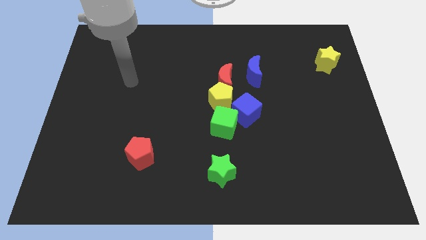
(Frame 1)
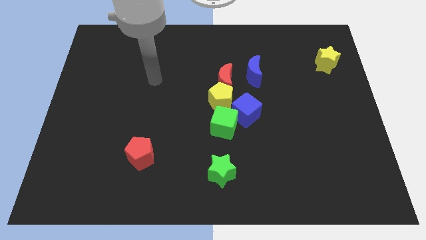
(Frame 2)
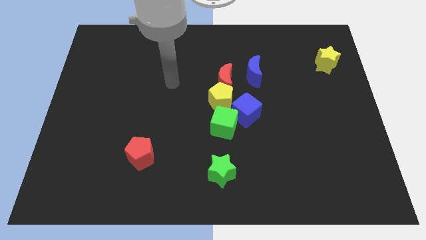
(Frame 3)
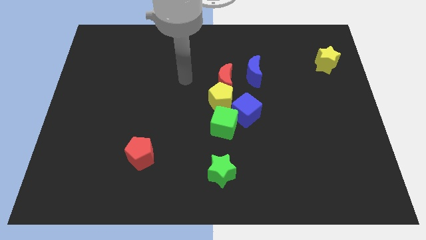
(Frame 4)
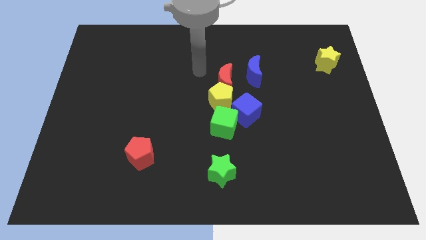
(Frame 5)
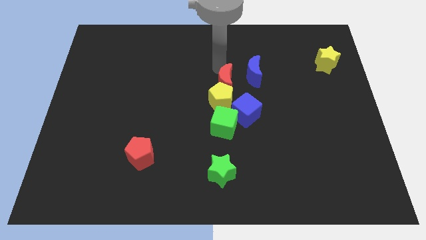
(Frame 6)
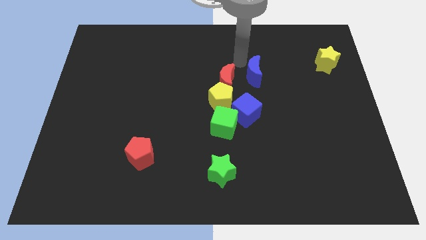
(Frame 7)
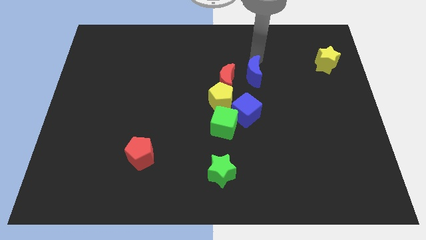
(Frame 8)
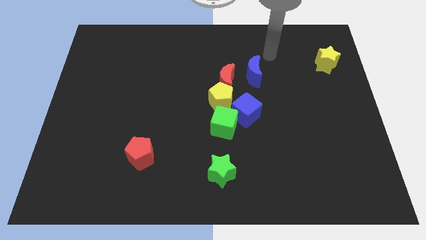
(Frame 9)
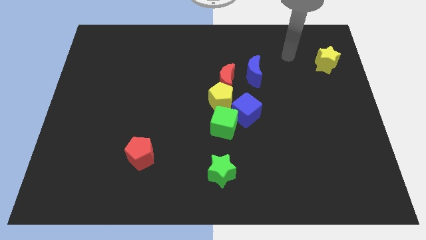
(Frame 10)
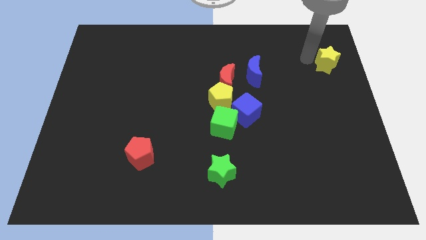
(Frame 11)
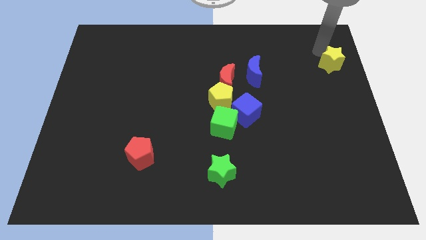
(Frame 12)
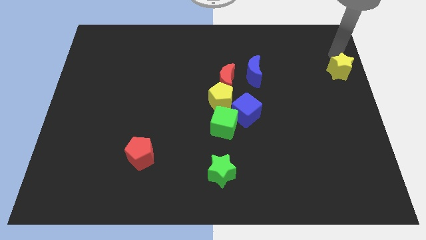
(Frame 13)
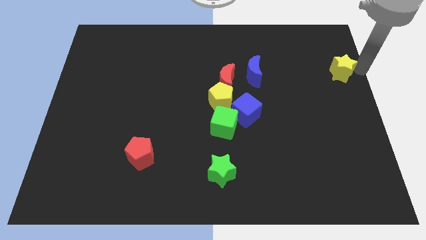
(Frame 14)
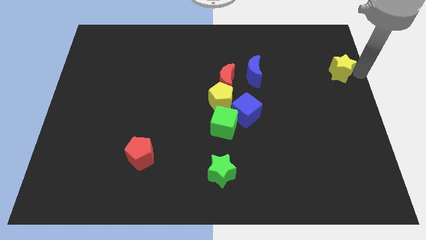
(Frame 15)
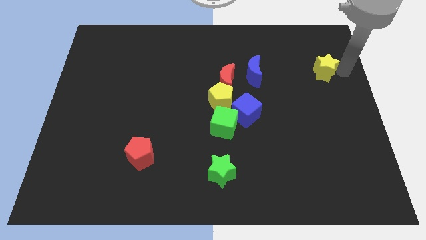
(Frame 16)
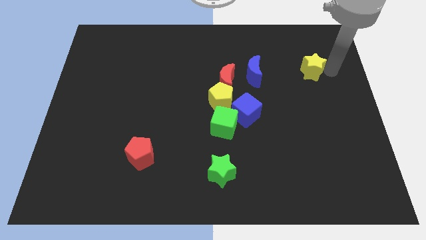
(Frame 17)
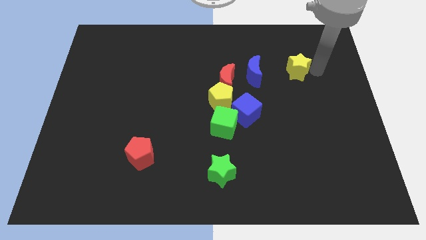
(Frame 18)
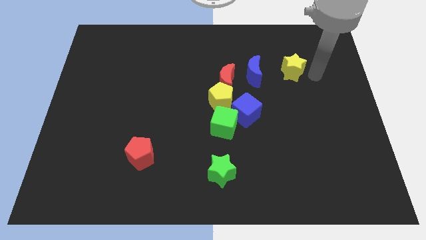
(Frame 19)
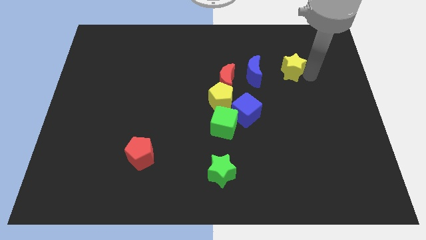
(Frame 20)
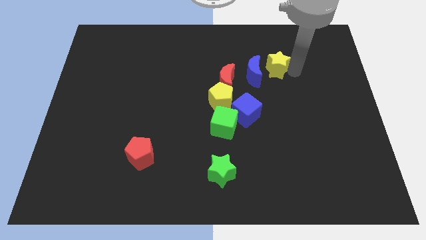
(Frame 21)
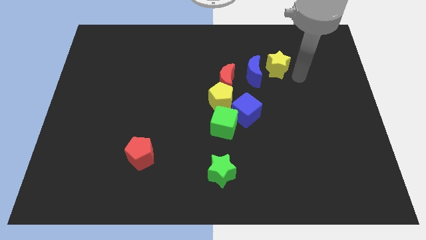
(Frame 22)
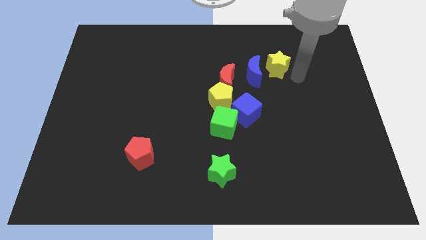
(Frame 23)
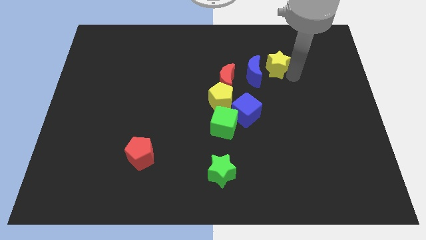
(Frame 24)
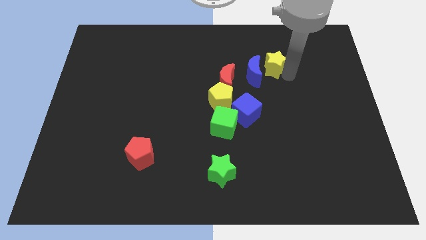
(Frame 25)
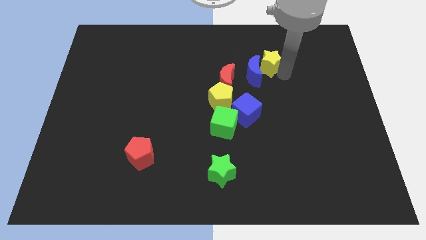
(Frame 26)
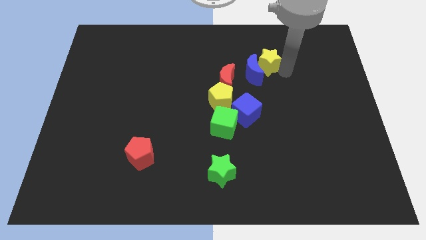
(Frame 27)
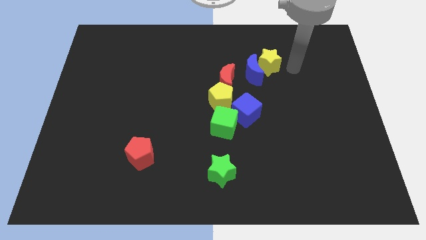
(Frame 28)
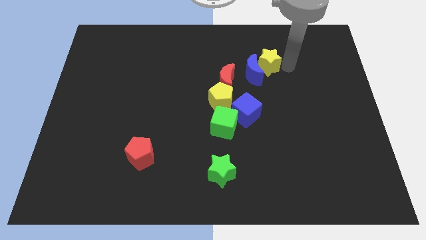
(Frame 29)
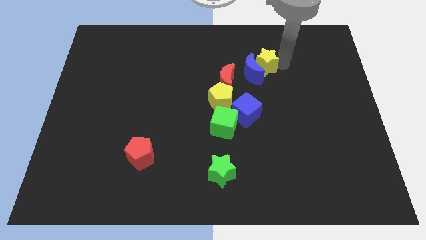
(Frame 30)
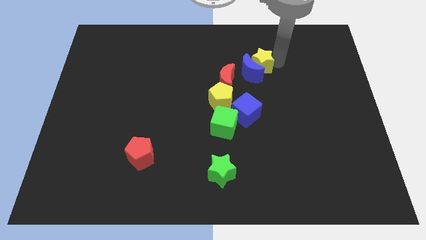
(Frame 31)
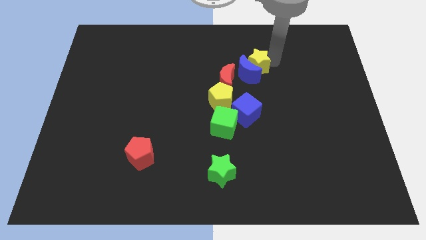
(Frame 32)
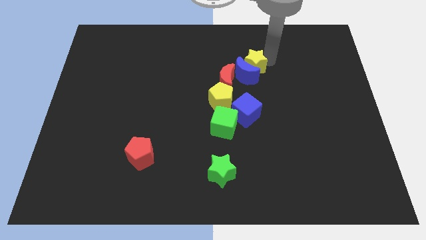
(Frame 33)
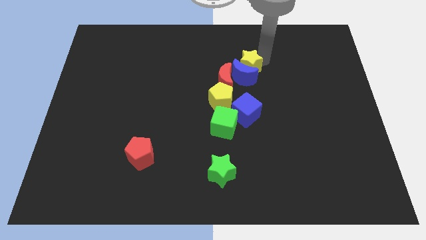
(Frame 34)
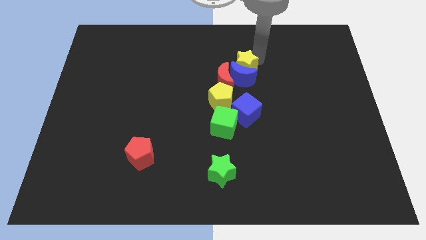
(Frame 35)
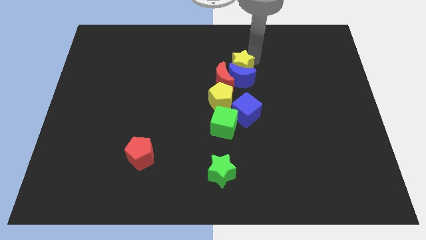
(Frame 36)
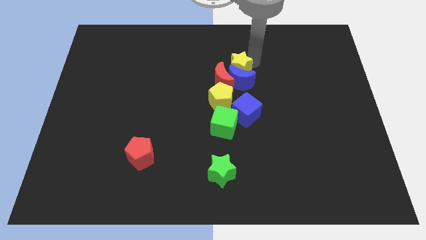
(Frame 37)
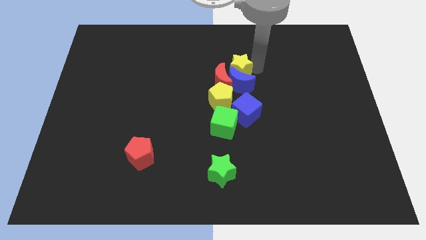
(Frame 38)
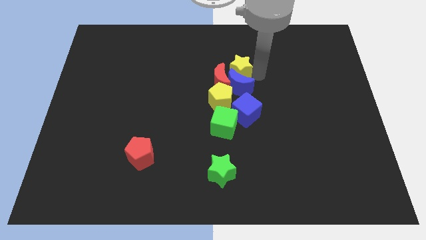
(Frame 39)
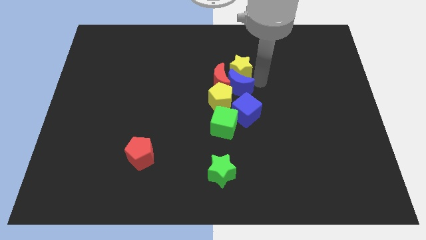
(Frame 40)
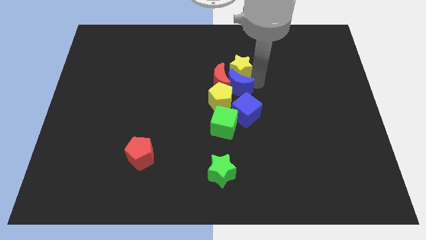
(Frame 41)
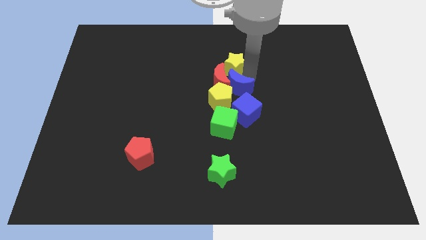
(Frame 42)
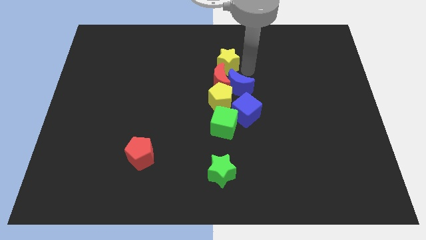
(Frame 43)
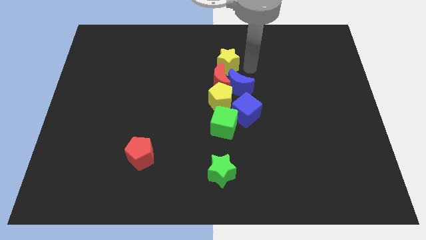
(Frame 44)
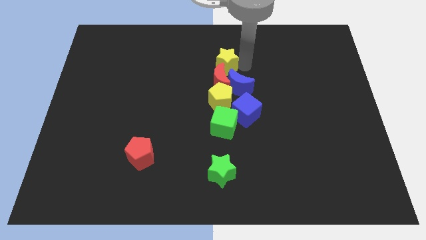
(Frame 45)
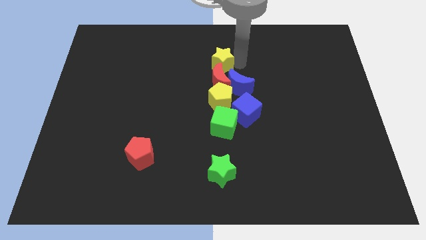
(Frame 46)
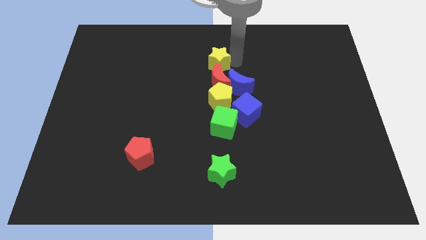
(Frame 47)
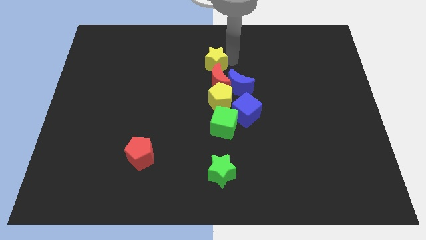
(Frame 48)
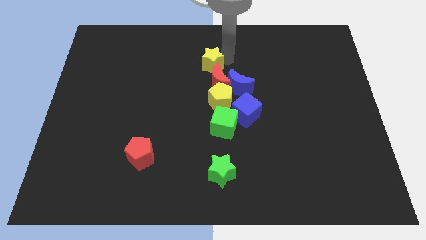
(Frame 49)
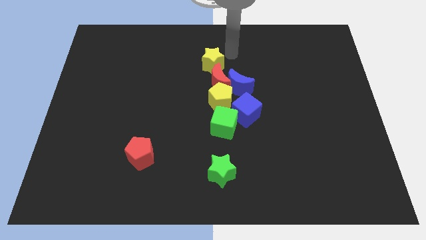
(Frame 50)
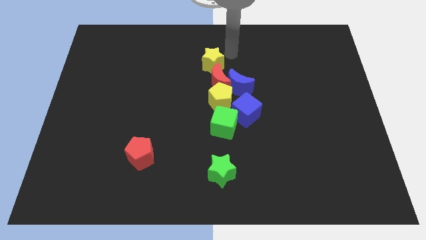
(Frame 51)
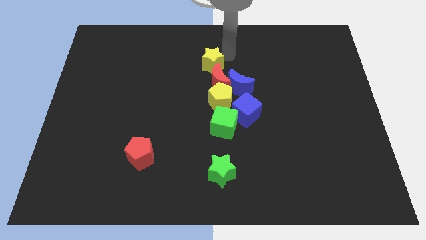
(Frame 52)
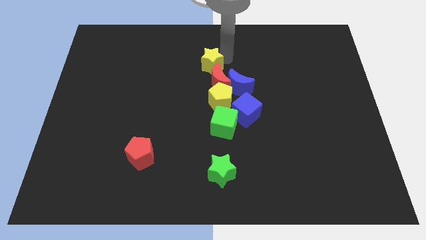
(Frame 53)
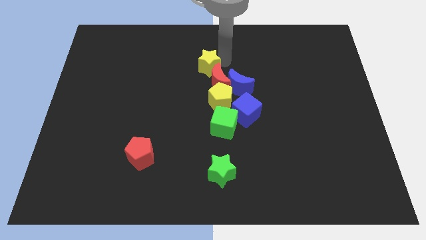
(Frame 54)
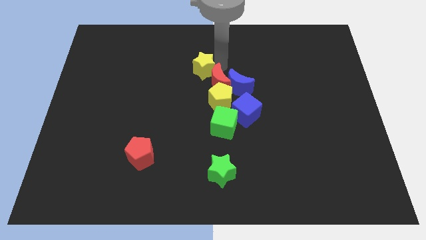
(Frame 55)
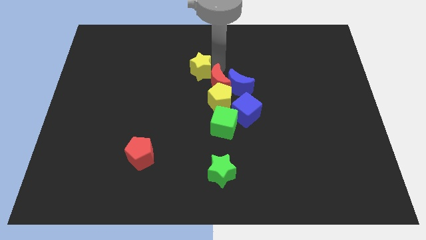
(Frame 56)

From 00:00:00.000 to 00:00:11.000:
slide the yellow star to the left side of the red moon

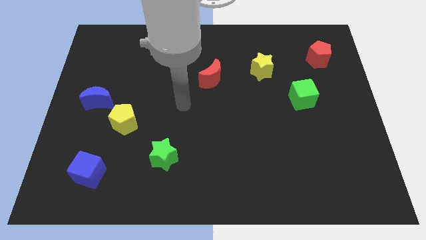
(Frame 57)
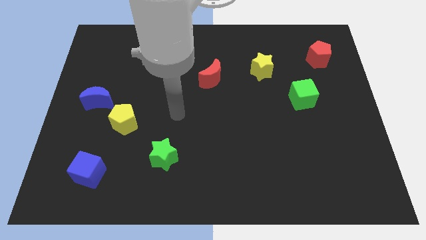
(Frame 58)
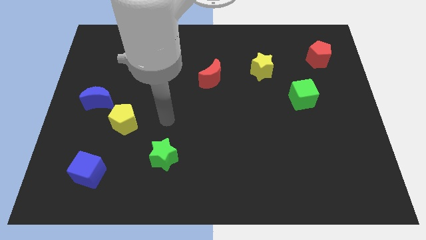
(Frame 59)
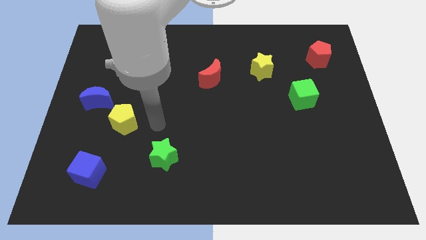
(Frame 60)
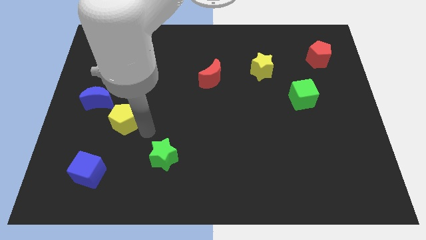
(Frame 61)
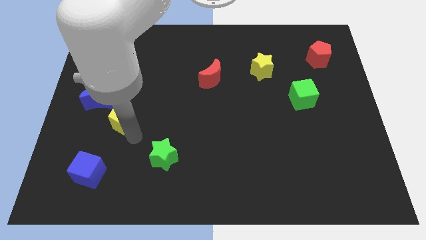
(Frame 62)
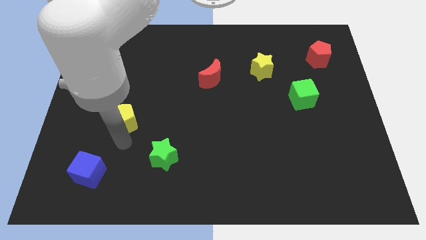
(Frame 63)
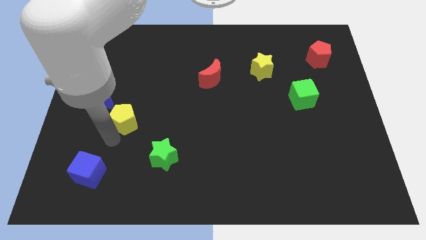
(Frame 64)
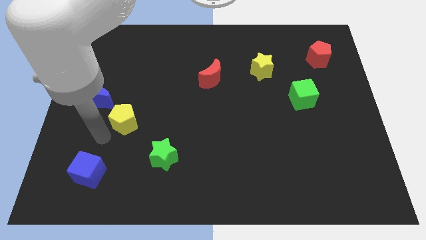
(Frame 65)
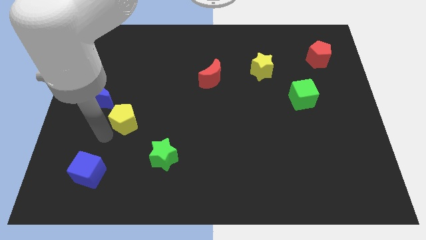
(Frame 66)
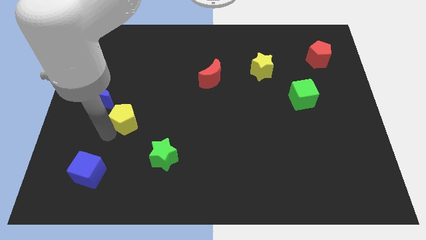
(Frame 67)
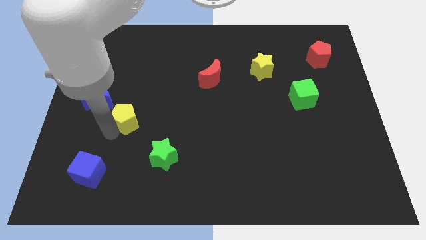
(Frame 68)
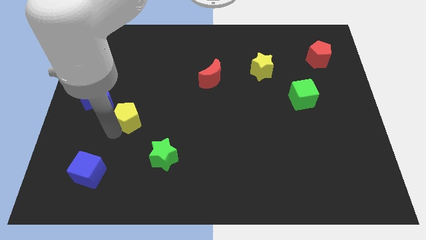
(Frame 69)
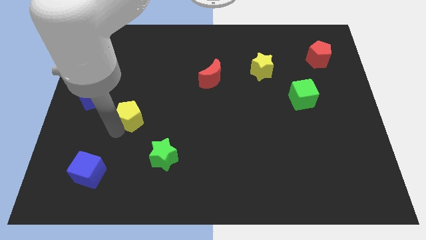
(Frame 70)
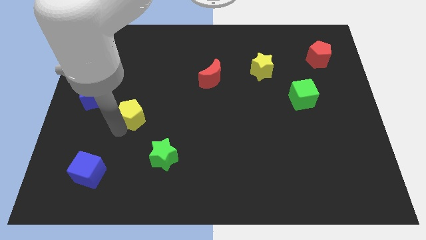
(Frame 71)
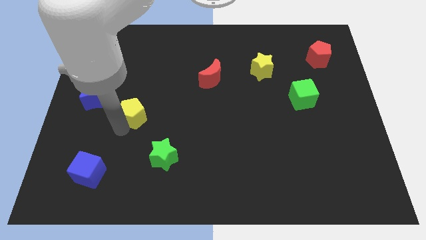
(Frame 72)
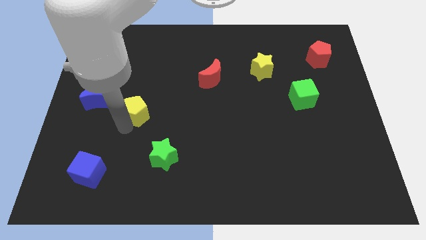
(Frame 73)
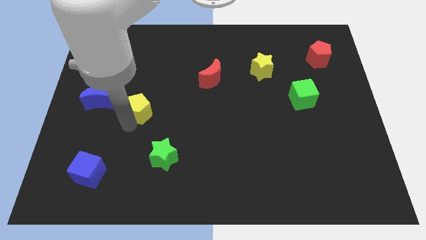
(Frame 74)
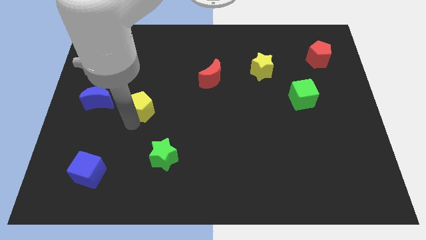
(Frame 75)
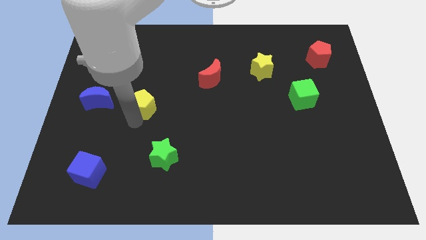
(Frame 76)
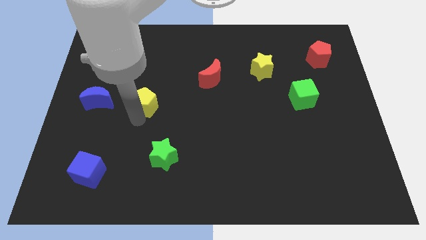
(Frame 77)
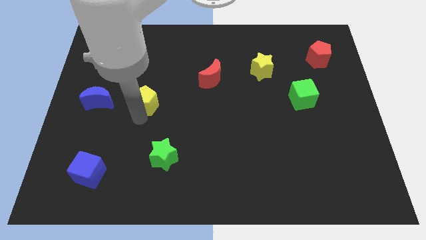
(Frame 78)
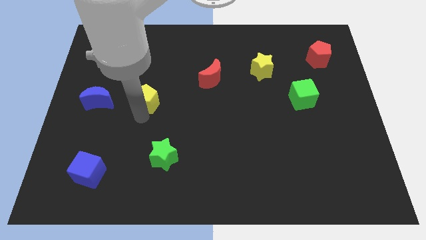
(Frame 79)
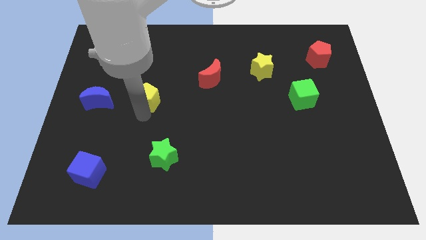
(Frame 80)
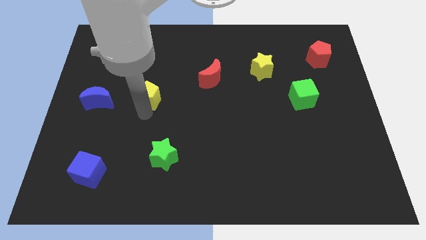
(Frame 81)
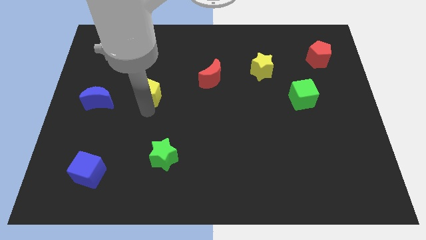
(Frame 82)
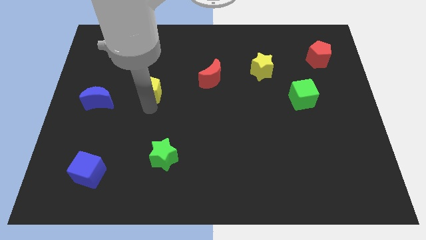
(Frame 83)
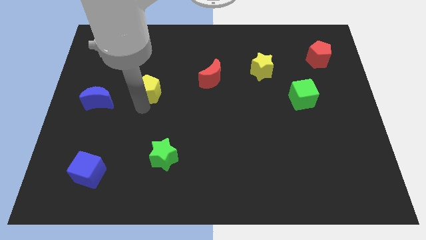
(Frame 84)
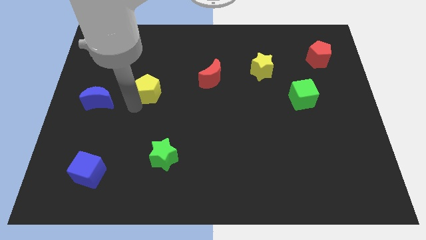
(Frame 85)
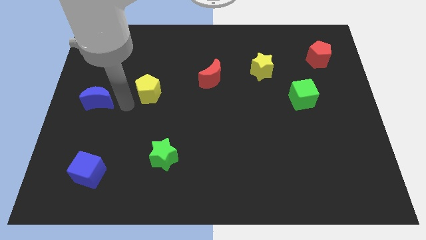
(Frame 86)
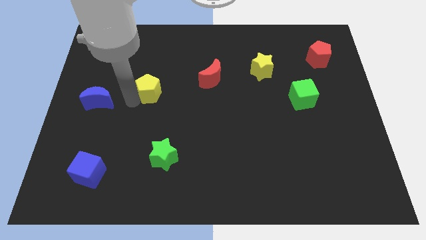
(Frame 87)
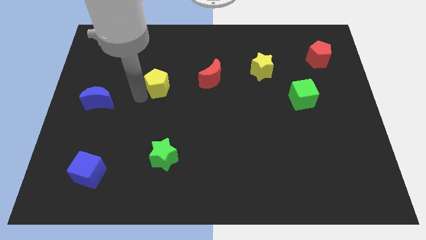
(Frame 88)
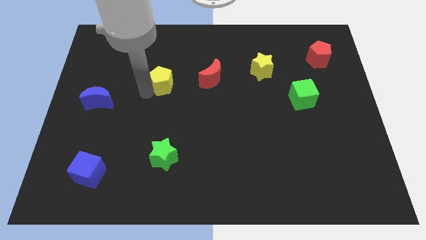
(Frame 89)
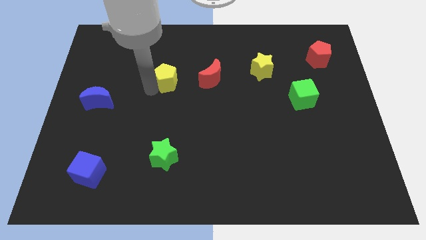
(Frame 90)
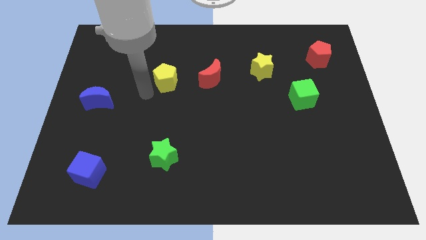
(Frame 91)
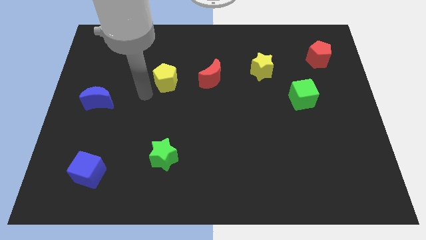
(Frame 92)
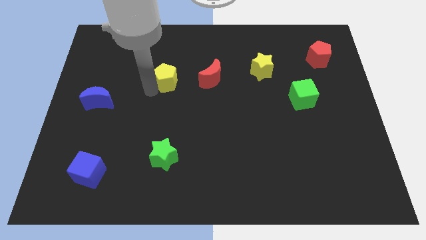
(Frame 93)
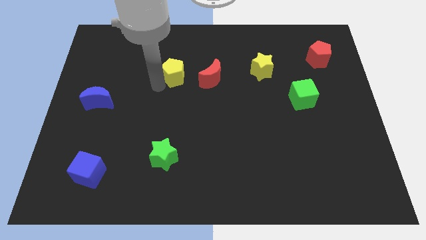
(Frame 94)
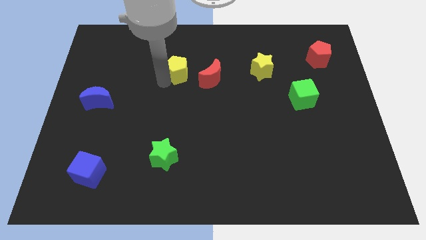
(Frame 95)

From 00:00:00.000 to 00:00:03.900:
slide the yellow pentagon diagonally up and to the left of the red moon
